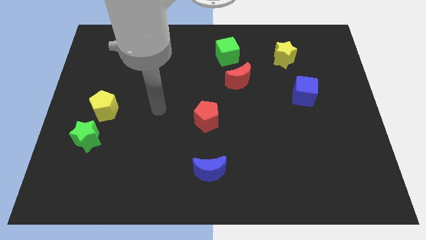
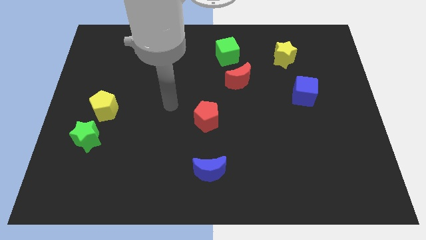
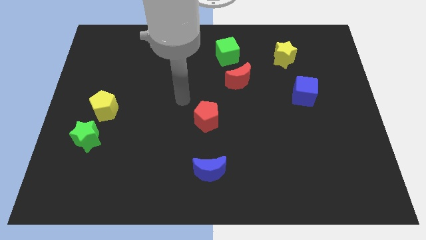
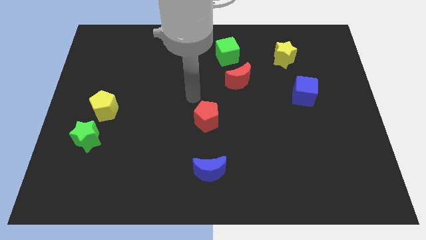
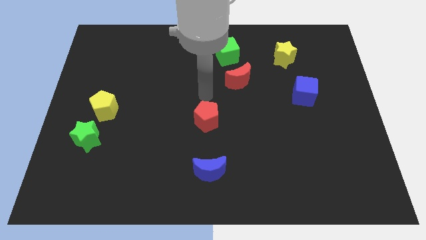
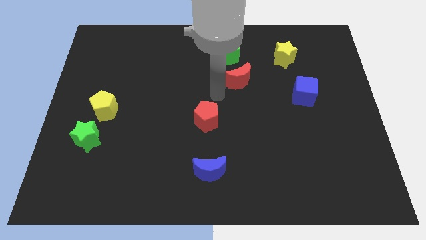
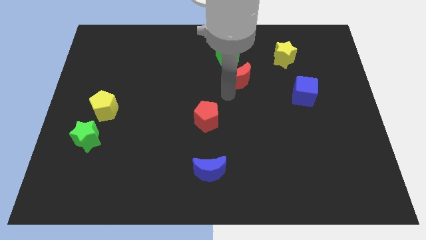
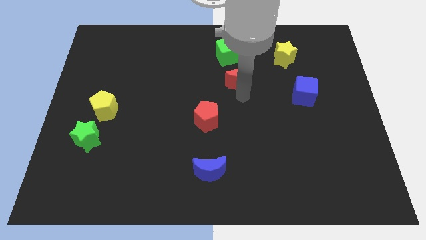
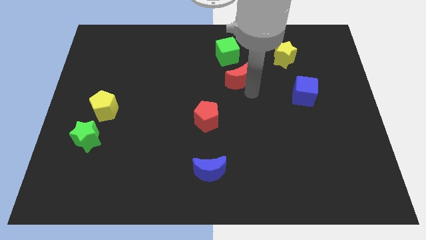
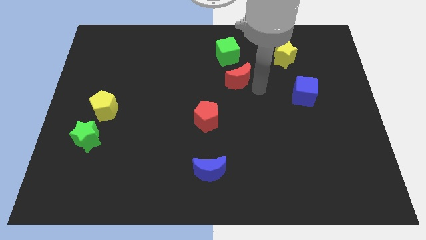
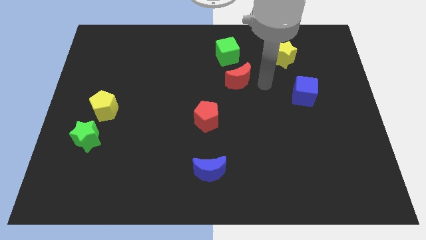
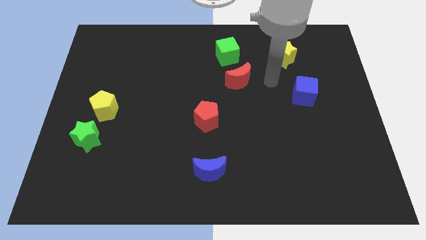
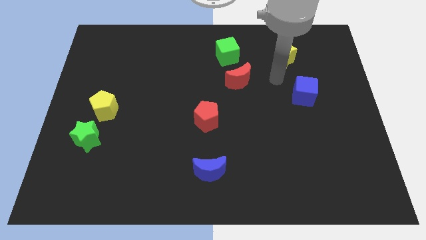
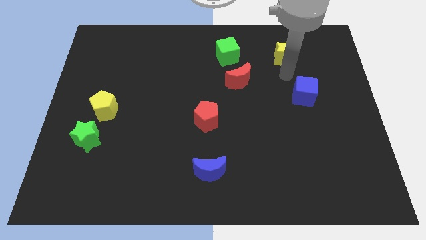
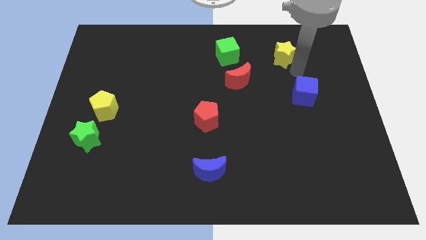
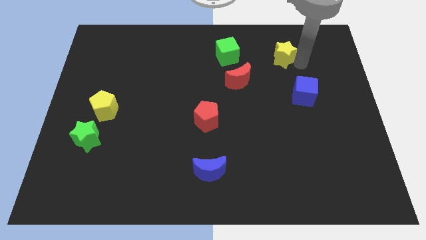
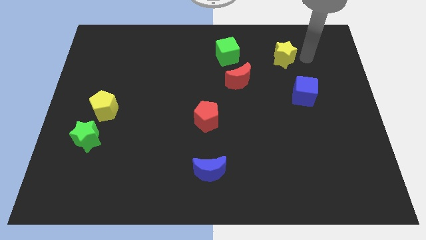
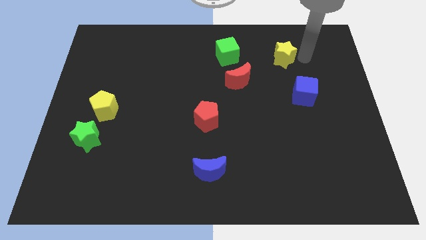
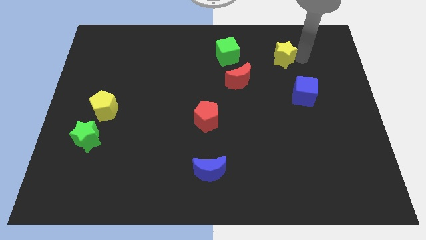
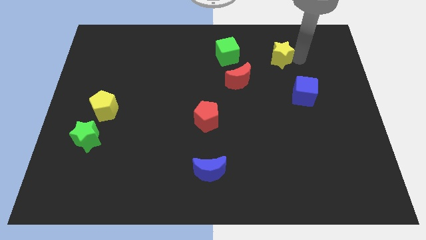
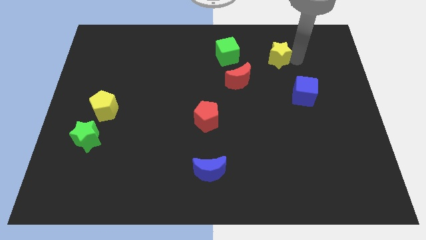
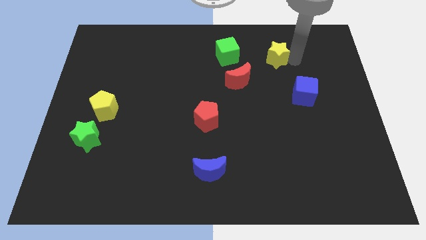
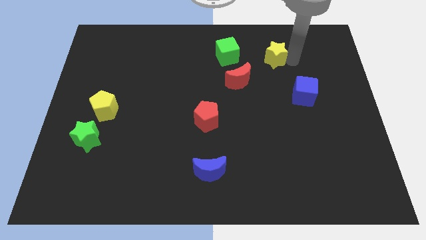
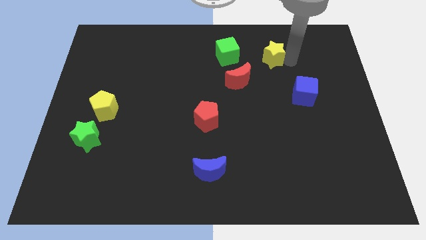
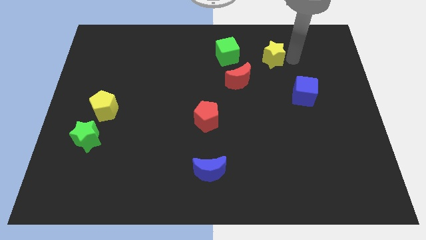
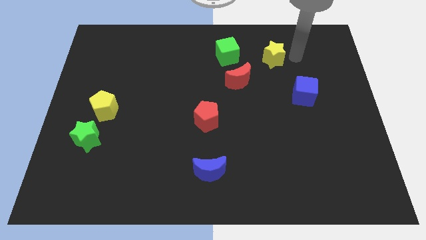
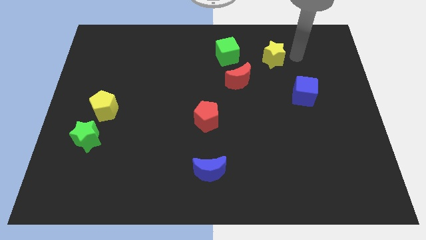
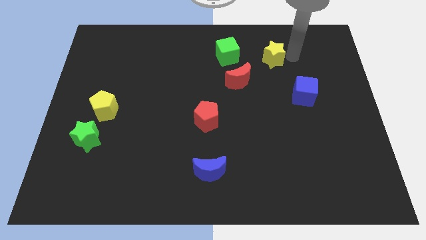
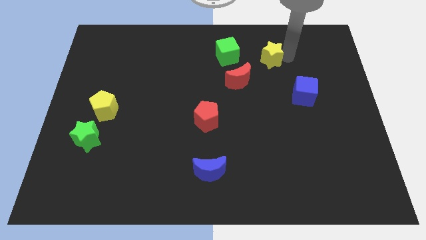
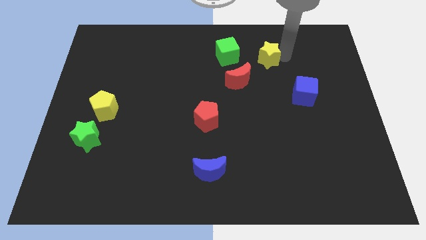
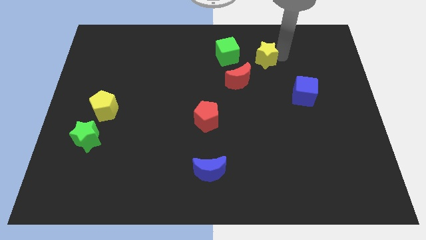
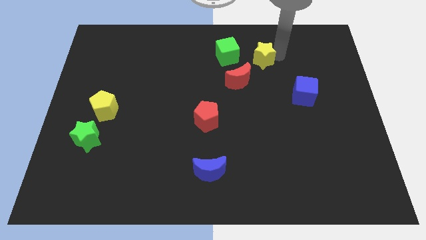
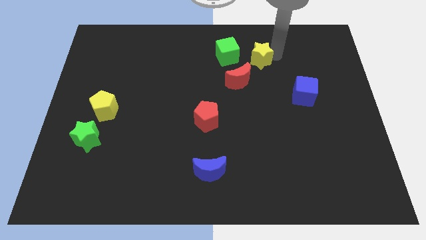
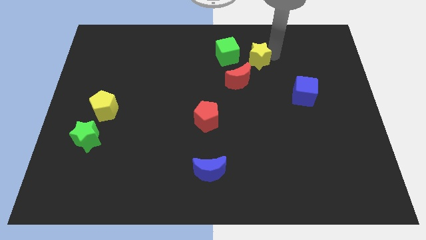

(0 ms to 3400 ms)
slide the yellow star slightly to the left

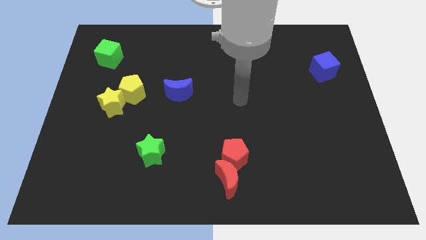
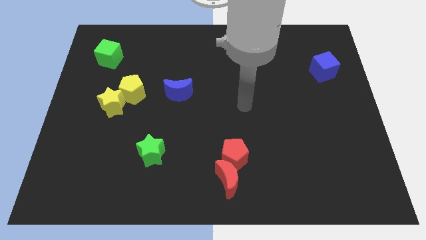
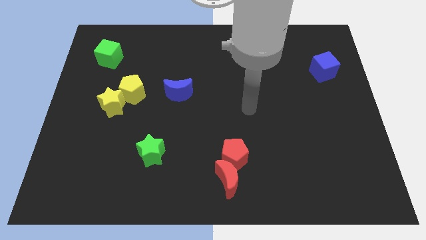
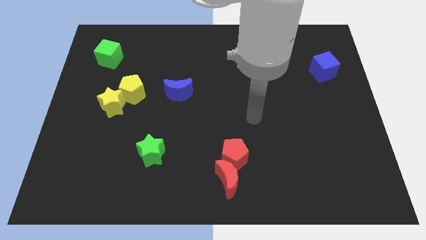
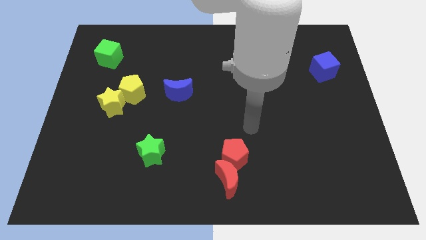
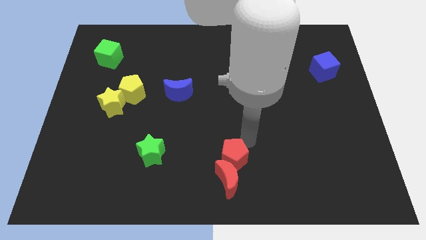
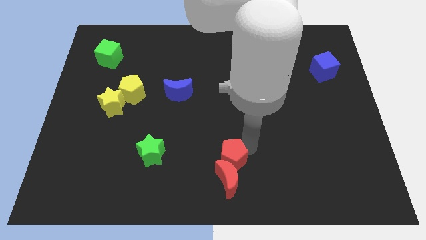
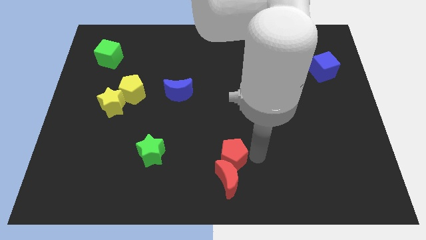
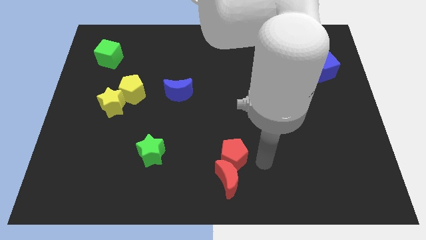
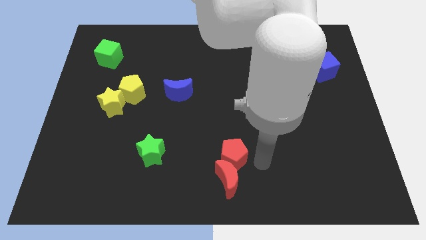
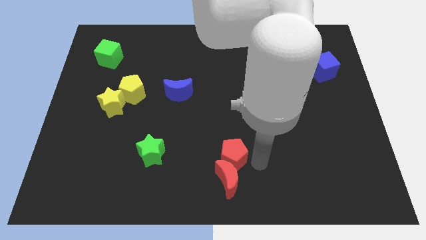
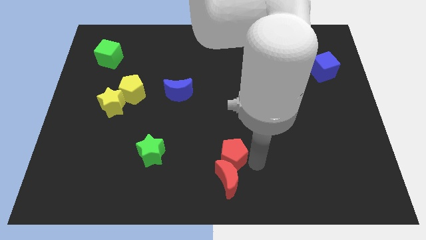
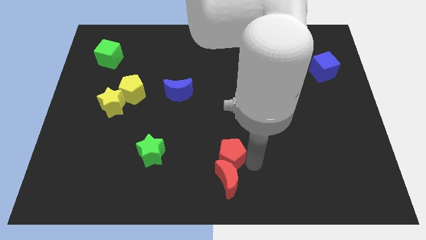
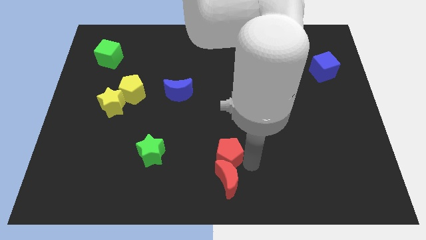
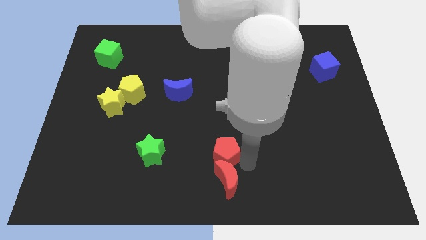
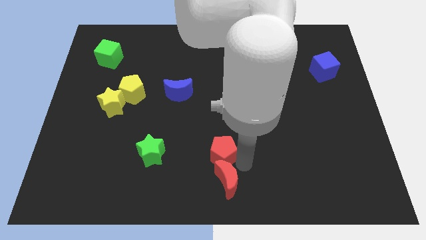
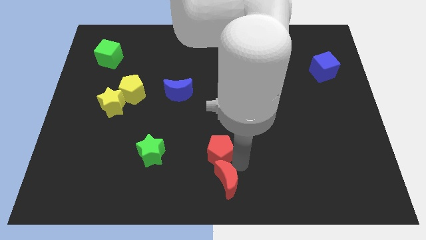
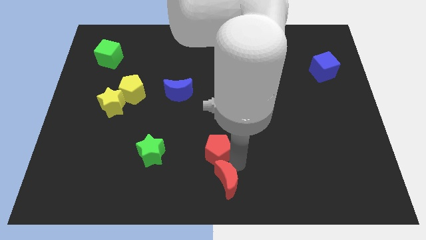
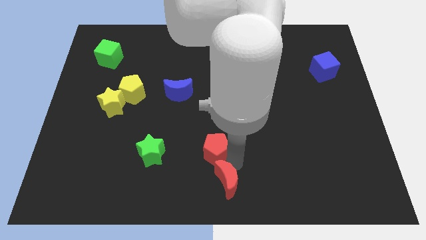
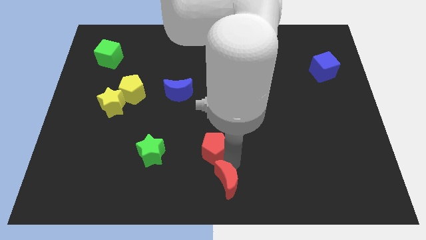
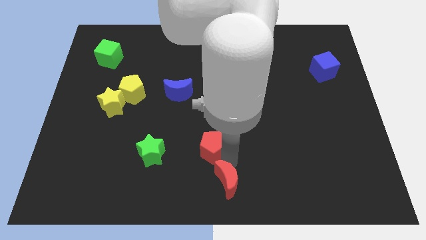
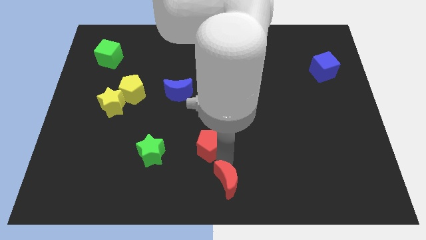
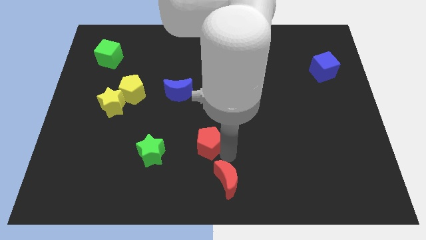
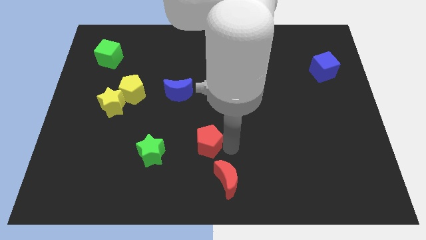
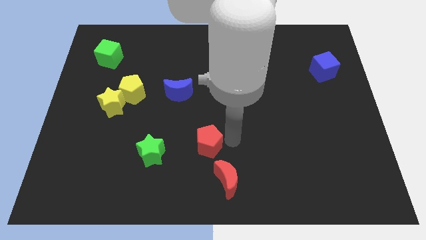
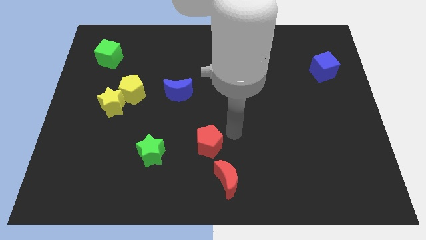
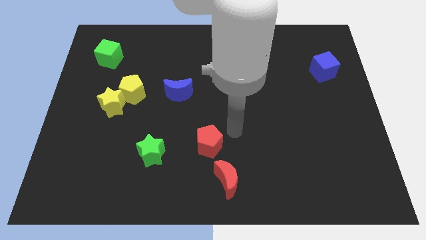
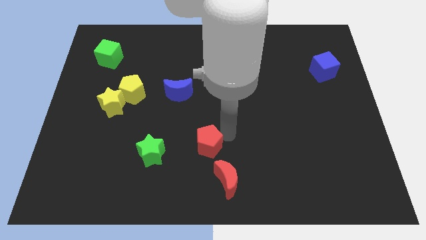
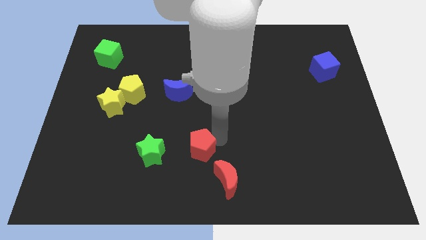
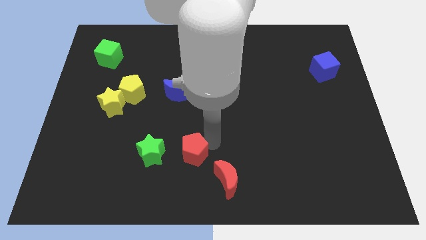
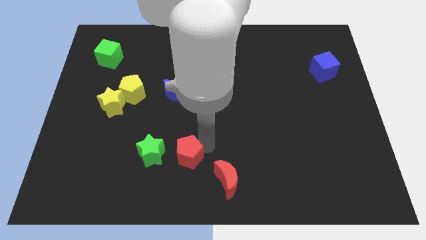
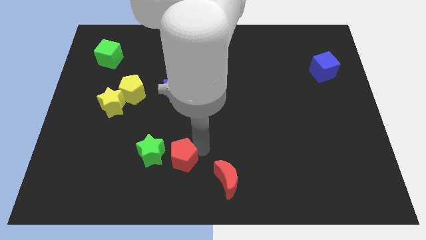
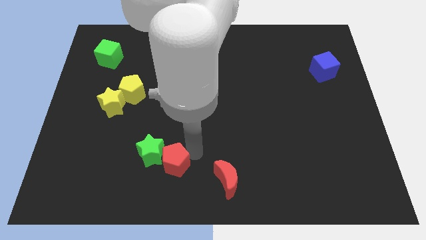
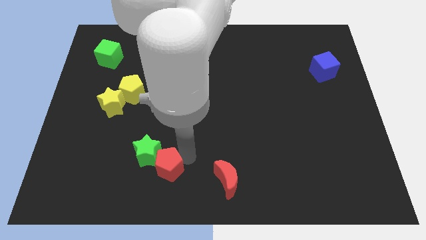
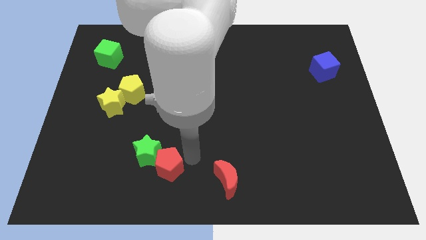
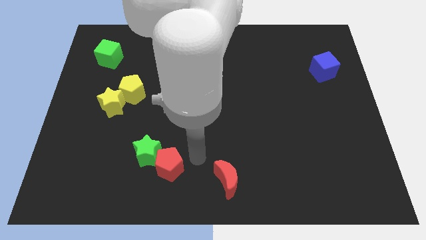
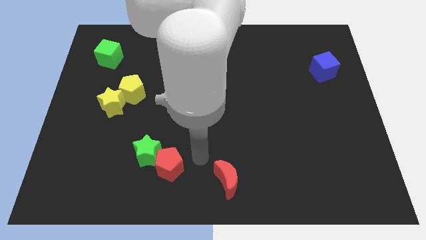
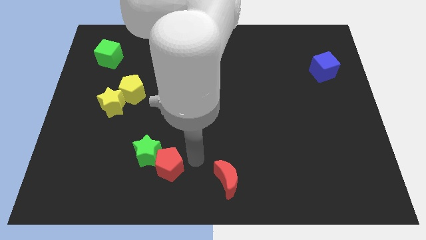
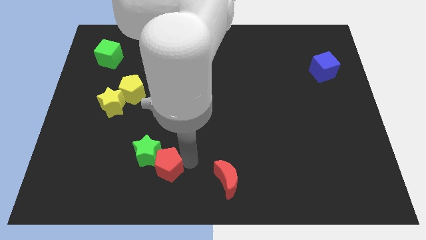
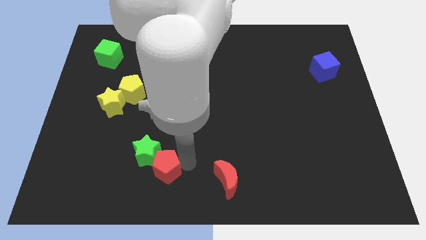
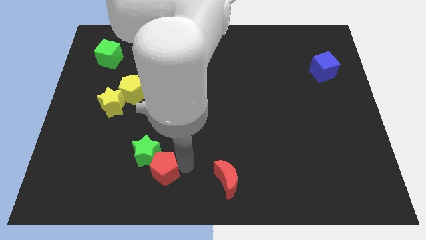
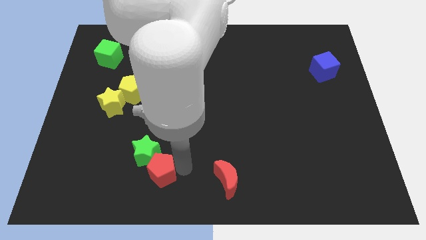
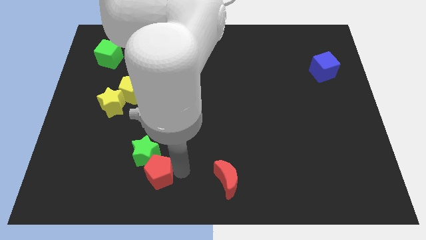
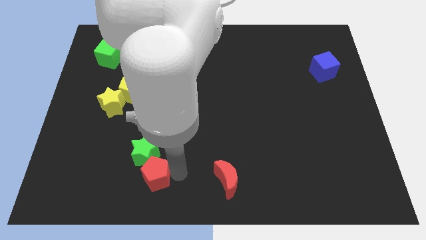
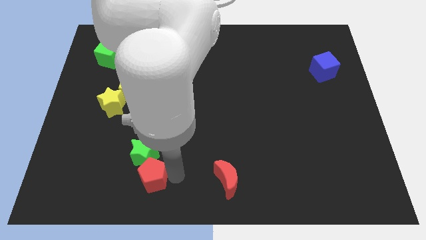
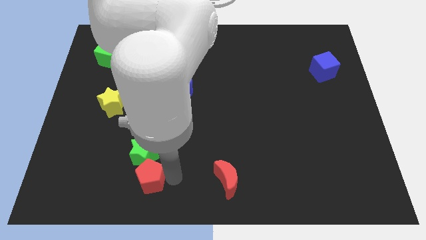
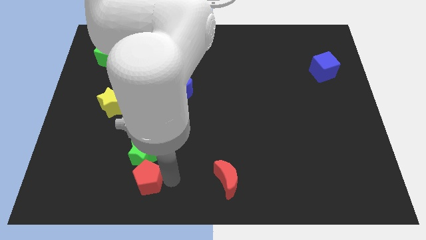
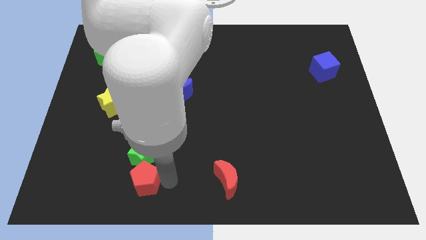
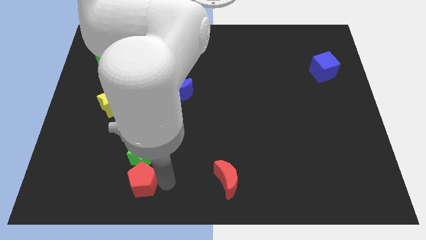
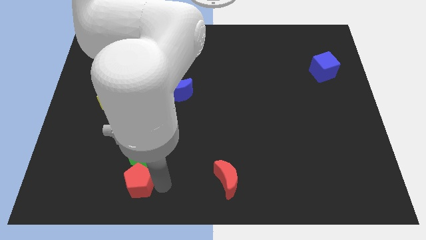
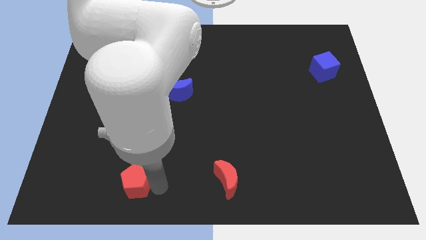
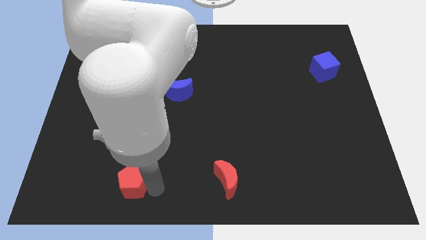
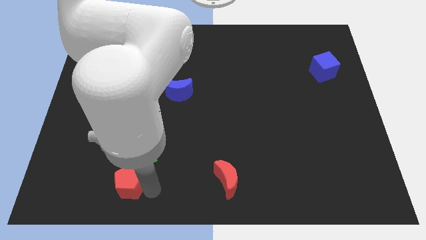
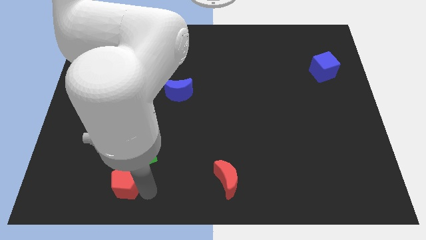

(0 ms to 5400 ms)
push the red pentagon to the left
